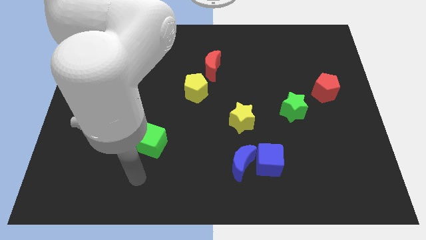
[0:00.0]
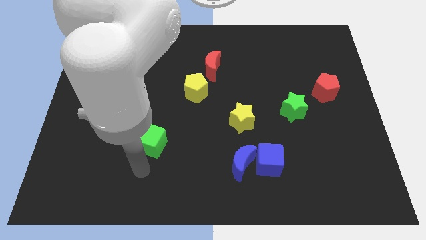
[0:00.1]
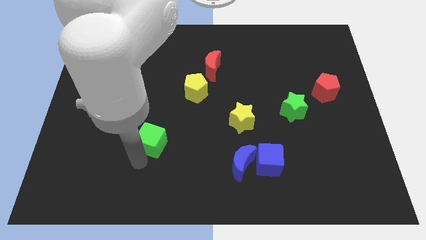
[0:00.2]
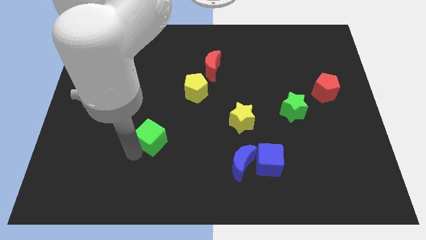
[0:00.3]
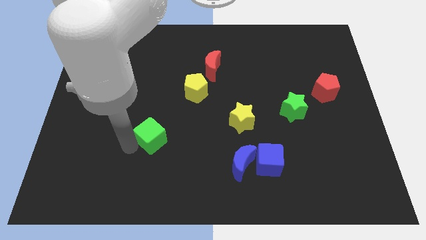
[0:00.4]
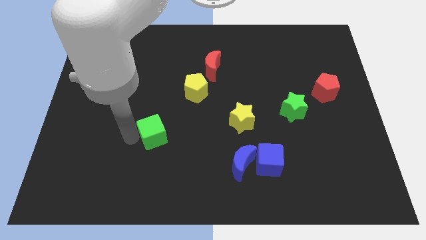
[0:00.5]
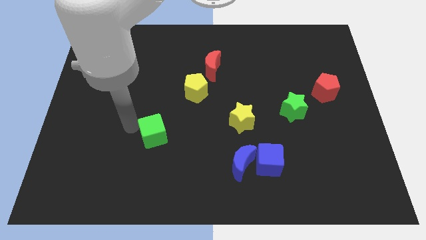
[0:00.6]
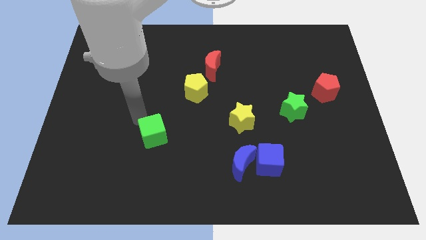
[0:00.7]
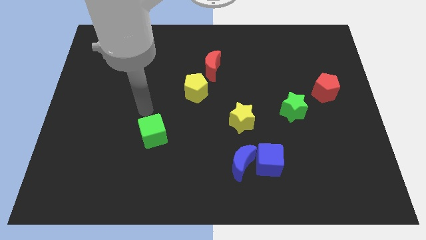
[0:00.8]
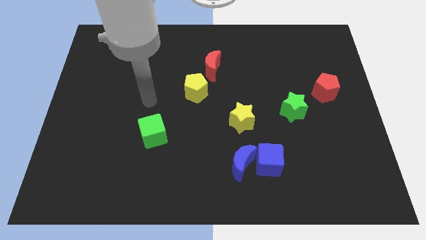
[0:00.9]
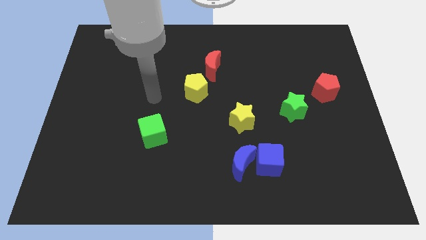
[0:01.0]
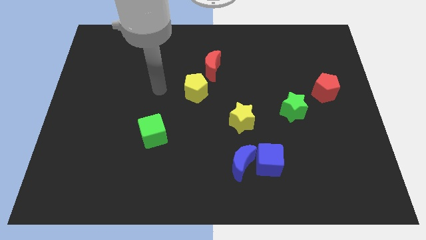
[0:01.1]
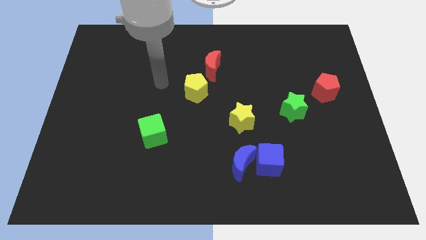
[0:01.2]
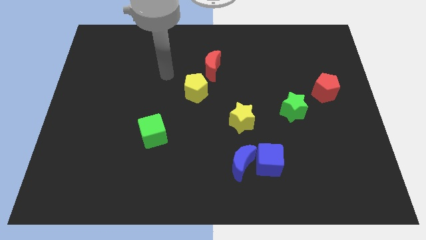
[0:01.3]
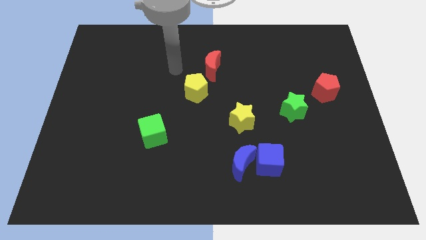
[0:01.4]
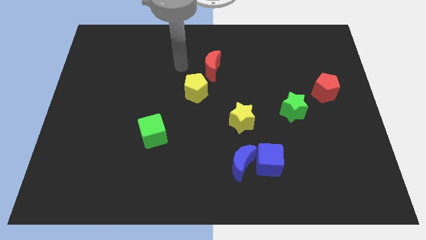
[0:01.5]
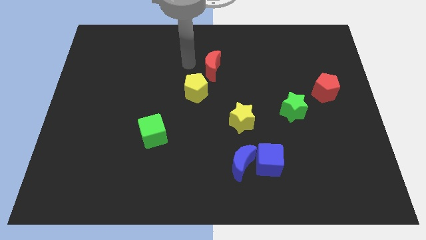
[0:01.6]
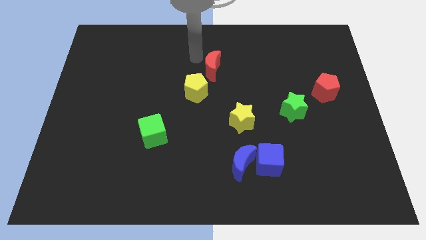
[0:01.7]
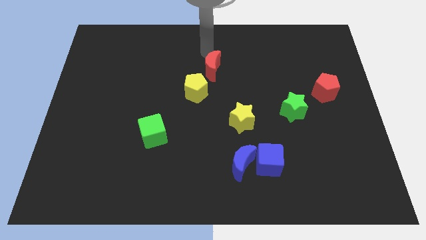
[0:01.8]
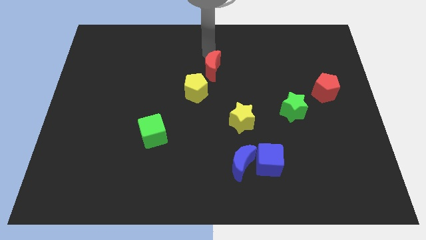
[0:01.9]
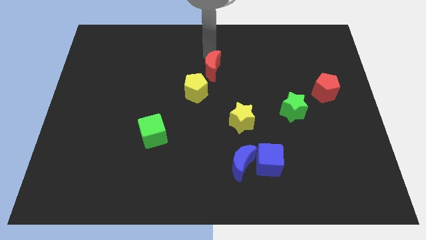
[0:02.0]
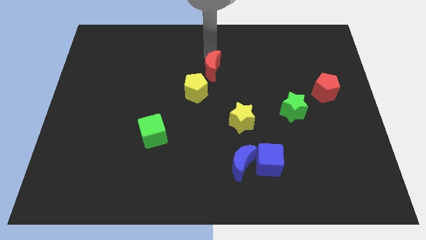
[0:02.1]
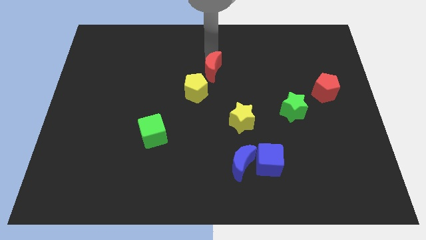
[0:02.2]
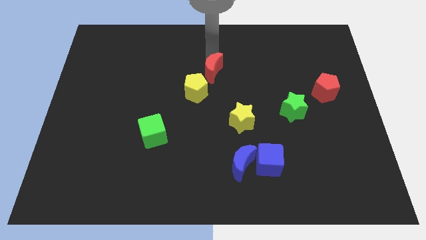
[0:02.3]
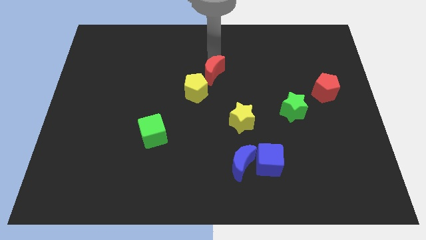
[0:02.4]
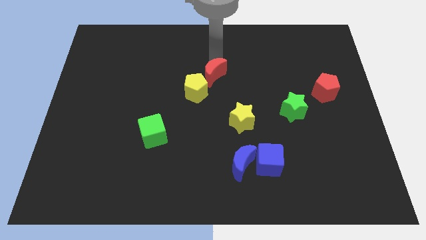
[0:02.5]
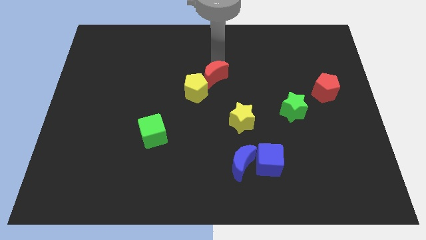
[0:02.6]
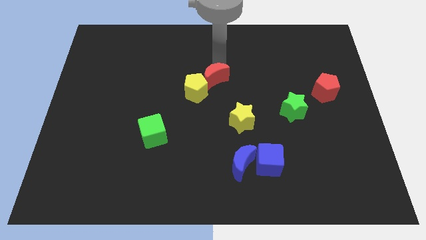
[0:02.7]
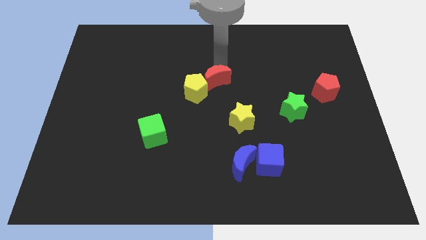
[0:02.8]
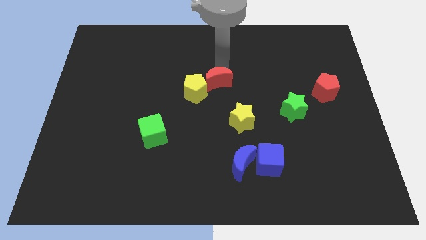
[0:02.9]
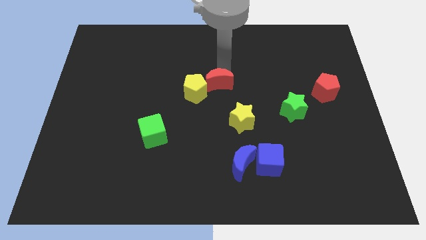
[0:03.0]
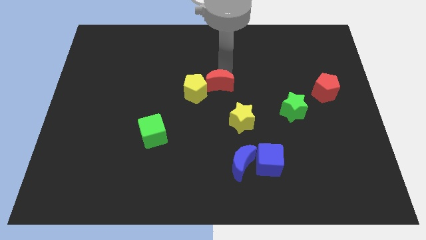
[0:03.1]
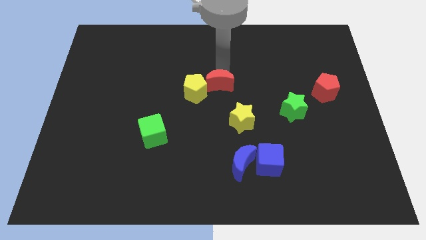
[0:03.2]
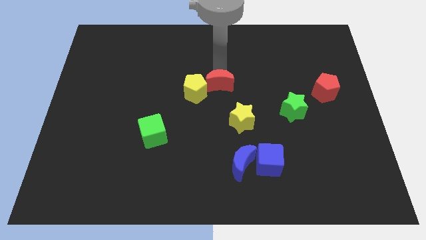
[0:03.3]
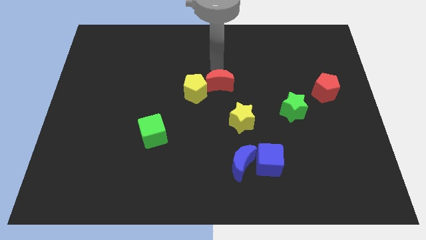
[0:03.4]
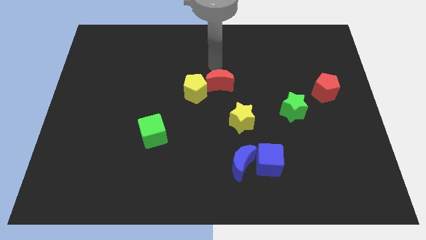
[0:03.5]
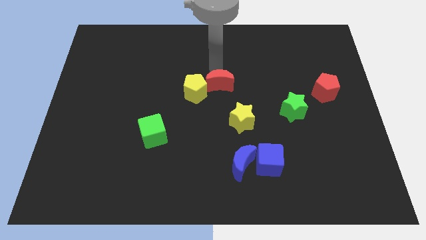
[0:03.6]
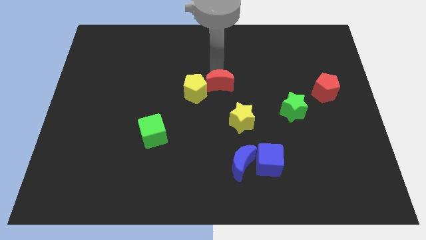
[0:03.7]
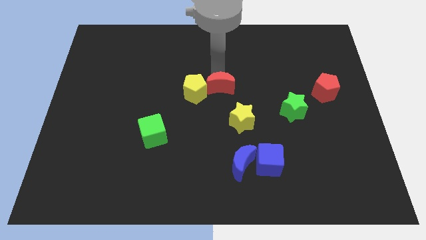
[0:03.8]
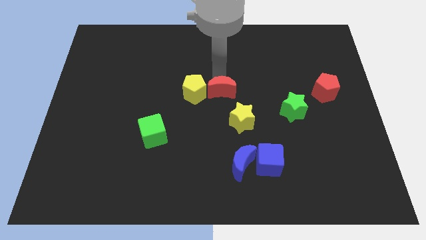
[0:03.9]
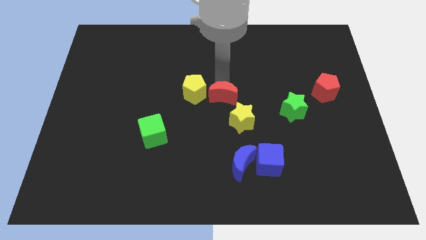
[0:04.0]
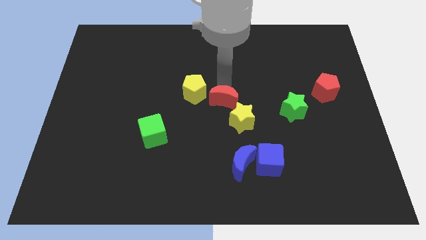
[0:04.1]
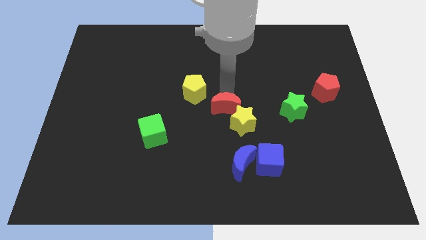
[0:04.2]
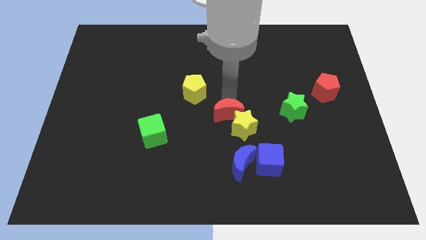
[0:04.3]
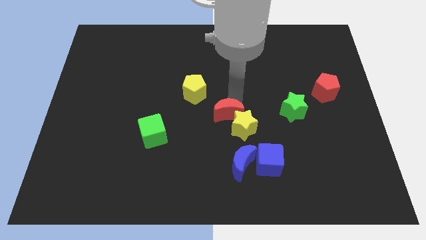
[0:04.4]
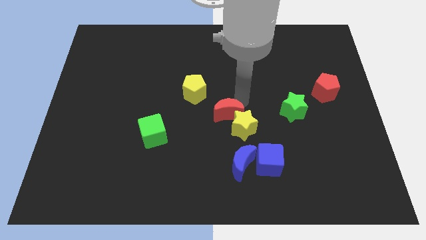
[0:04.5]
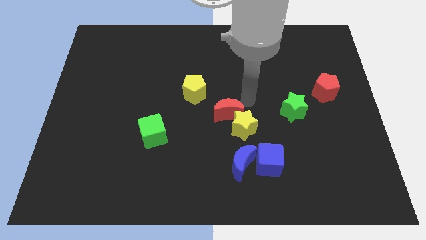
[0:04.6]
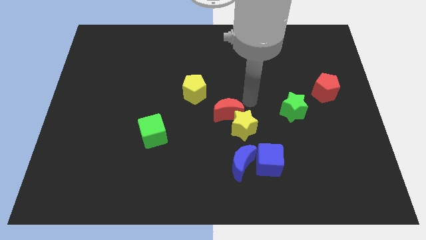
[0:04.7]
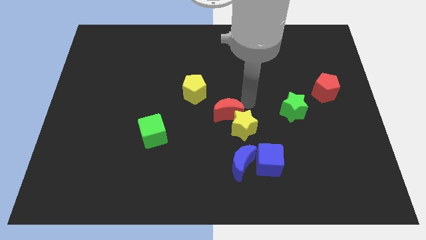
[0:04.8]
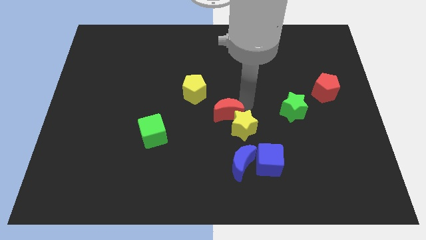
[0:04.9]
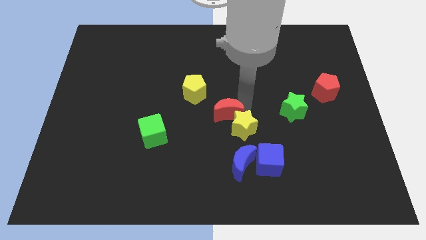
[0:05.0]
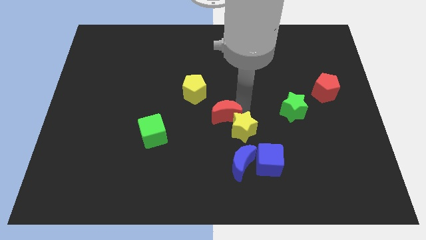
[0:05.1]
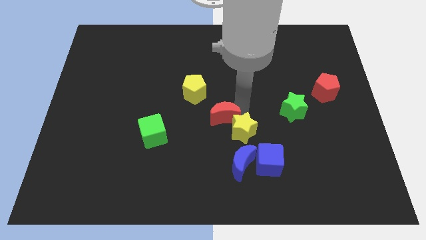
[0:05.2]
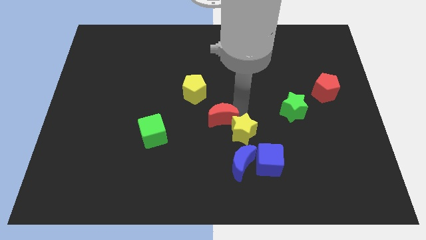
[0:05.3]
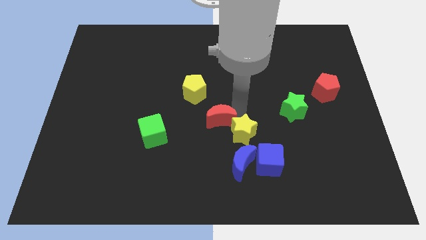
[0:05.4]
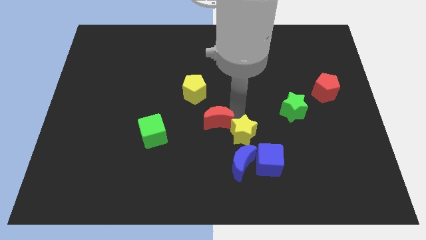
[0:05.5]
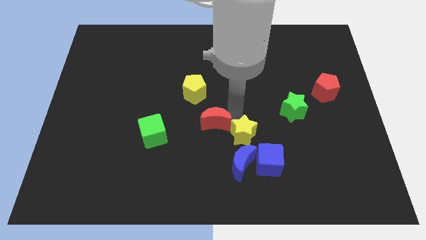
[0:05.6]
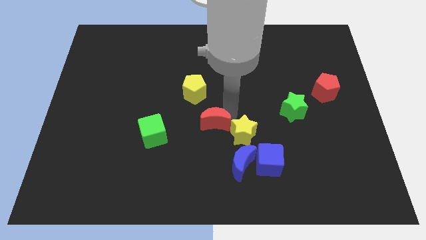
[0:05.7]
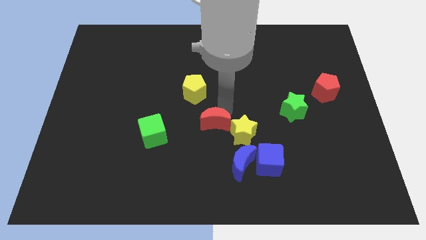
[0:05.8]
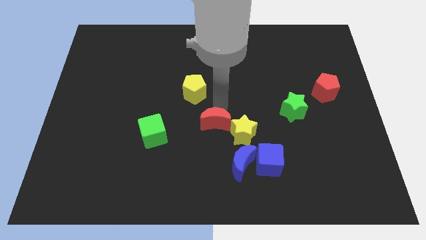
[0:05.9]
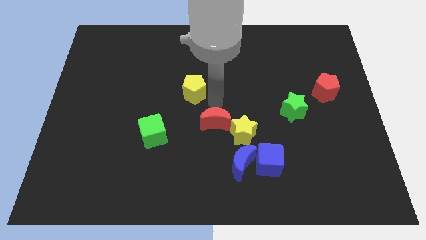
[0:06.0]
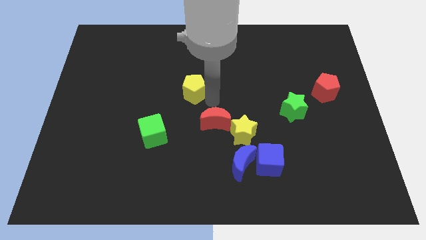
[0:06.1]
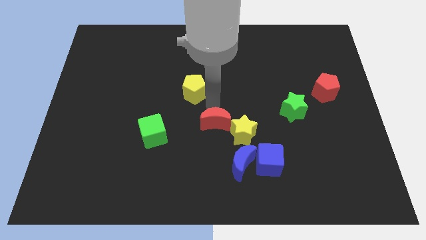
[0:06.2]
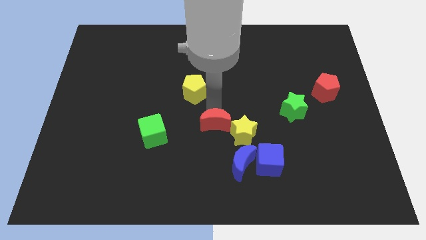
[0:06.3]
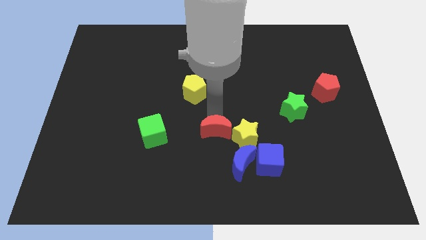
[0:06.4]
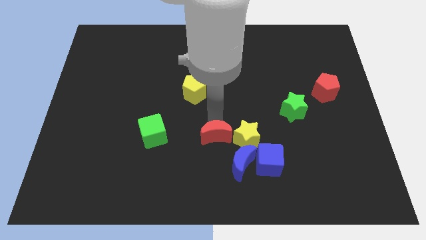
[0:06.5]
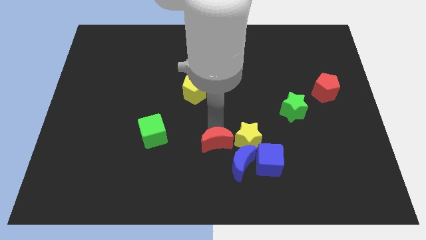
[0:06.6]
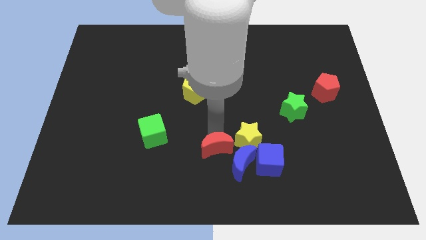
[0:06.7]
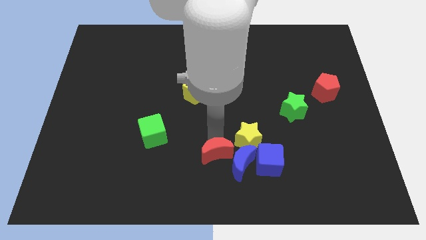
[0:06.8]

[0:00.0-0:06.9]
slide the red moon to the bottom side
